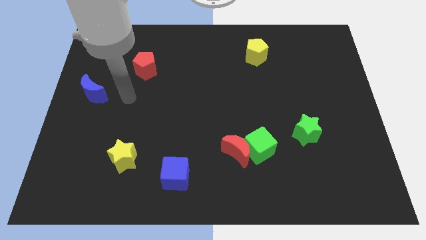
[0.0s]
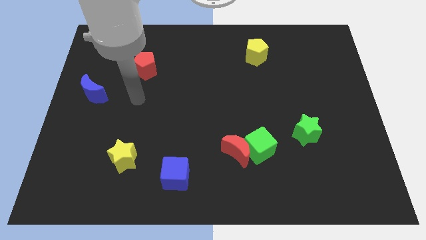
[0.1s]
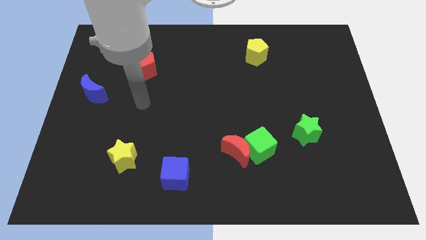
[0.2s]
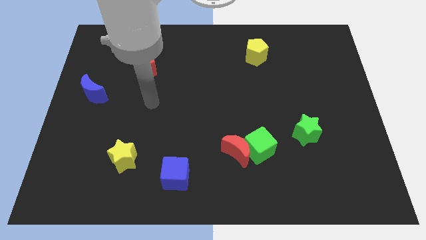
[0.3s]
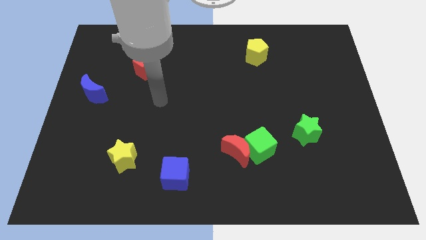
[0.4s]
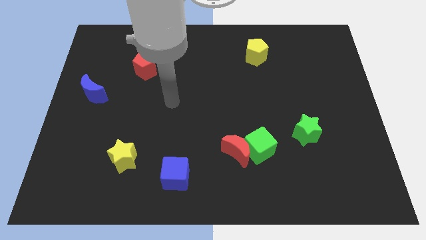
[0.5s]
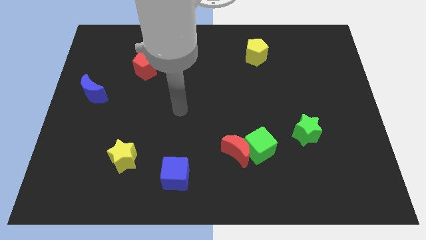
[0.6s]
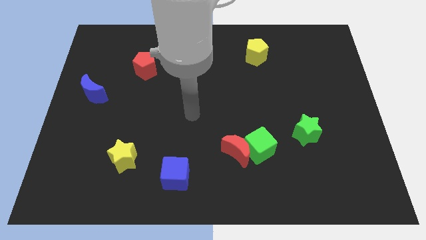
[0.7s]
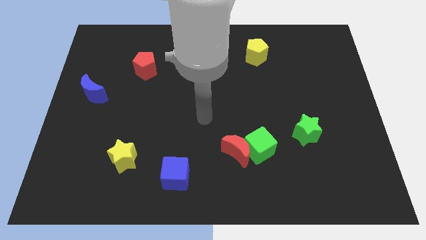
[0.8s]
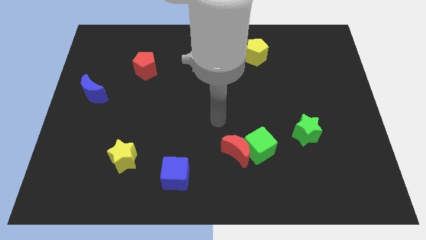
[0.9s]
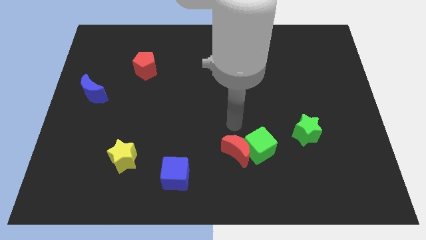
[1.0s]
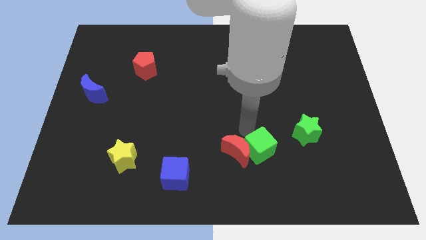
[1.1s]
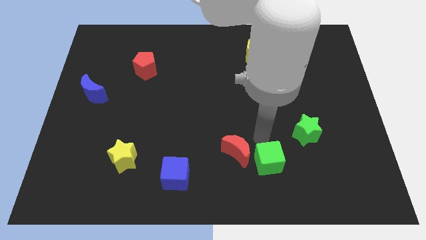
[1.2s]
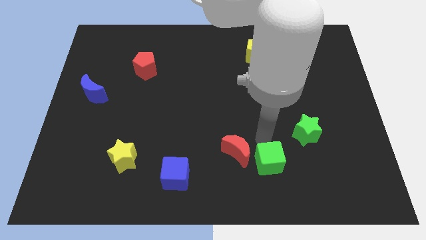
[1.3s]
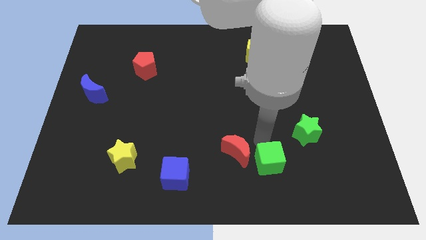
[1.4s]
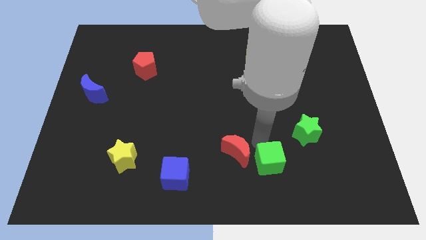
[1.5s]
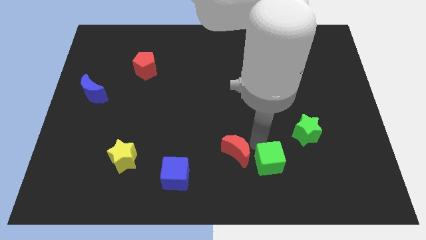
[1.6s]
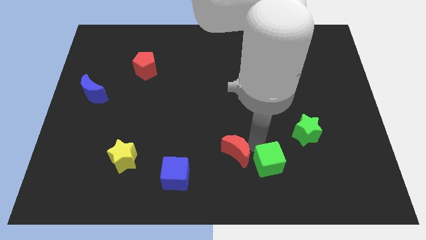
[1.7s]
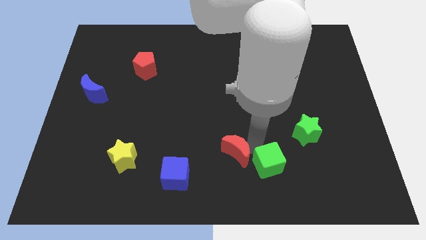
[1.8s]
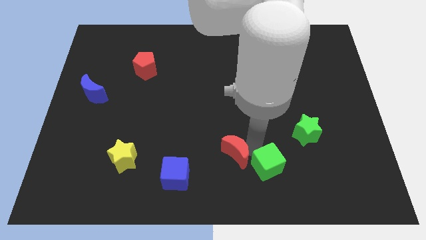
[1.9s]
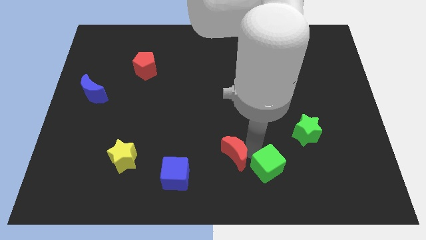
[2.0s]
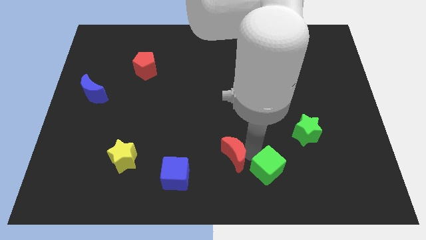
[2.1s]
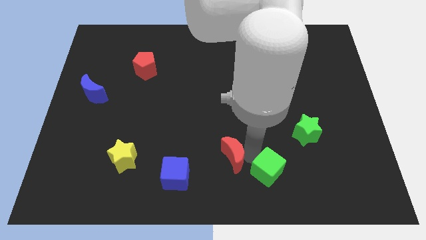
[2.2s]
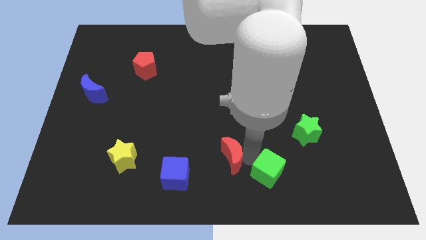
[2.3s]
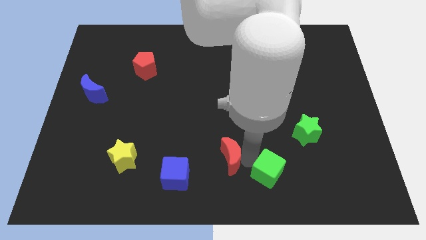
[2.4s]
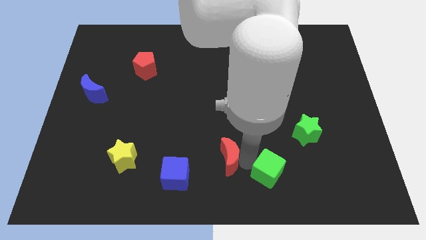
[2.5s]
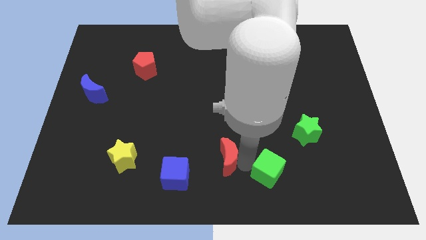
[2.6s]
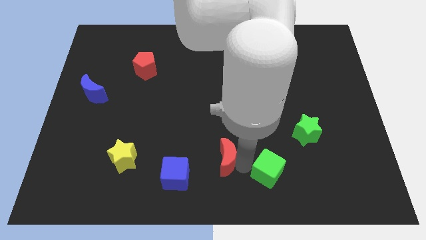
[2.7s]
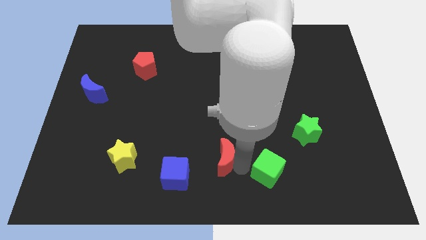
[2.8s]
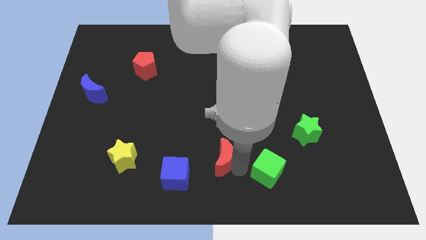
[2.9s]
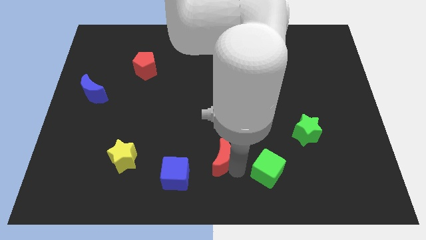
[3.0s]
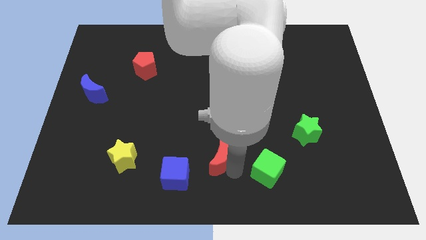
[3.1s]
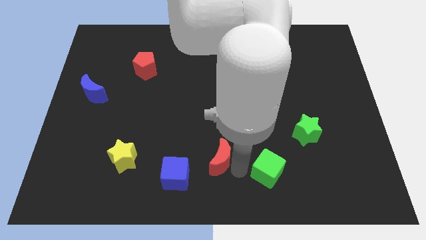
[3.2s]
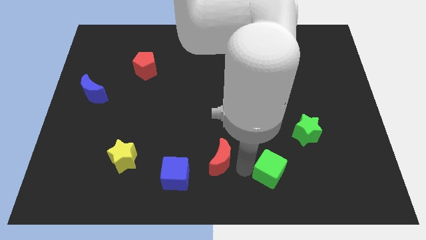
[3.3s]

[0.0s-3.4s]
pull the red moon apart from the green cube

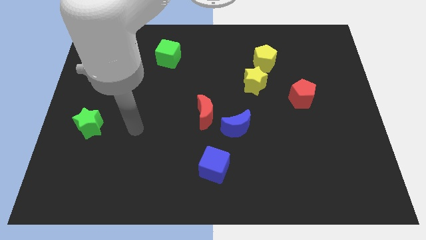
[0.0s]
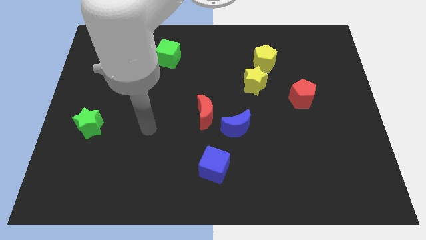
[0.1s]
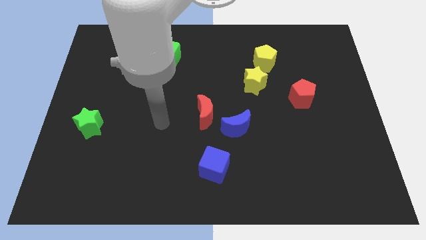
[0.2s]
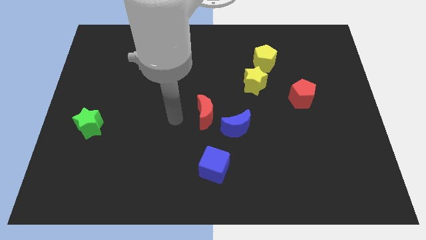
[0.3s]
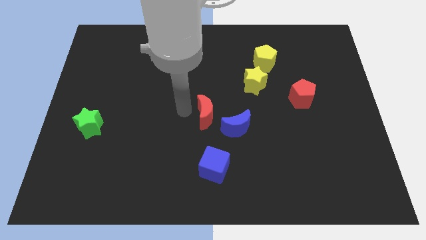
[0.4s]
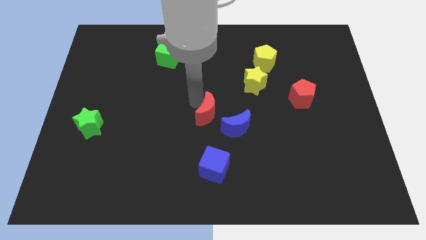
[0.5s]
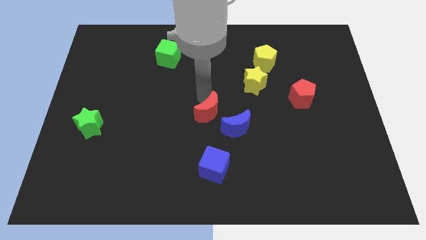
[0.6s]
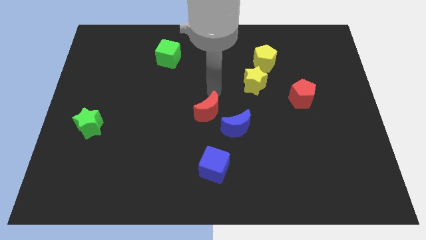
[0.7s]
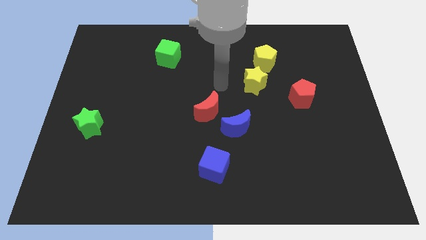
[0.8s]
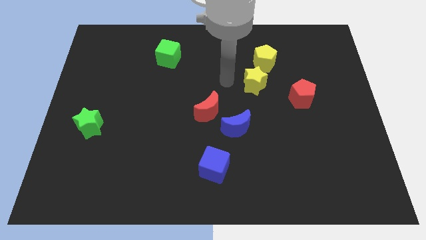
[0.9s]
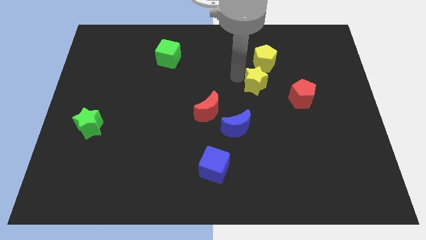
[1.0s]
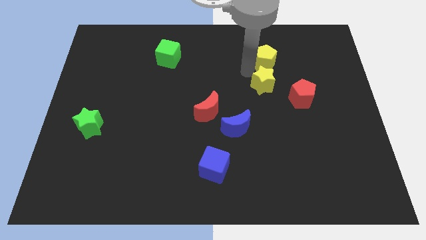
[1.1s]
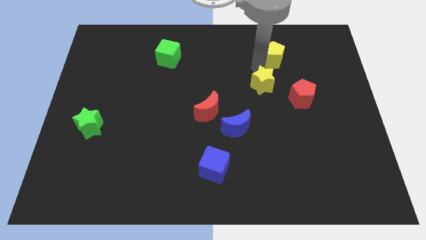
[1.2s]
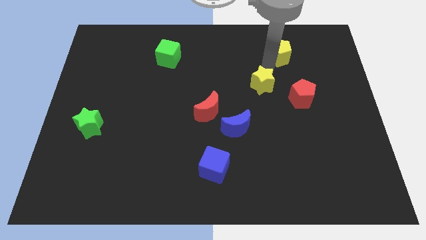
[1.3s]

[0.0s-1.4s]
move the yellow star away from the yellow pentagon

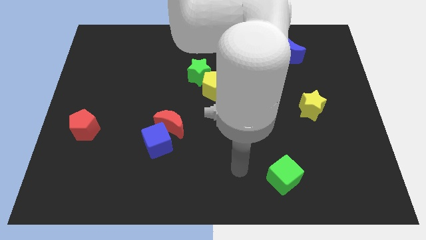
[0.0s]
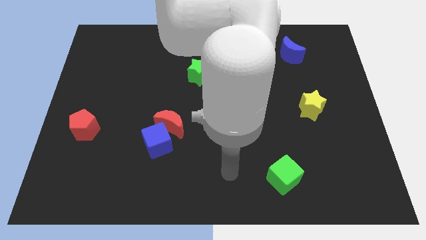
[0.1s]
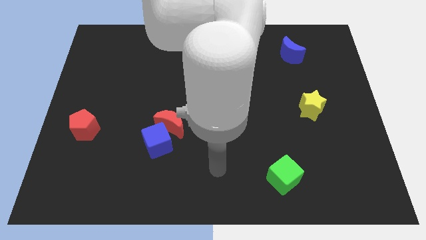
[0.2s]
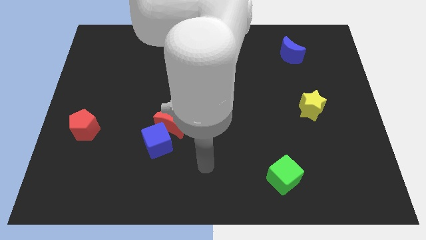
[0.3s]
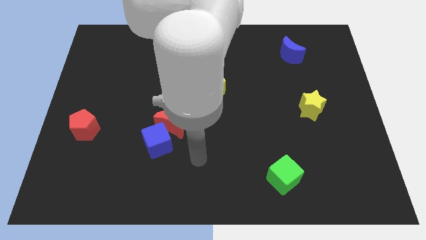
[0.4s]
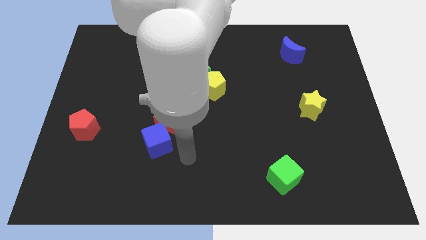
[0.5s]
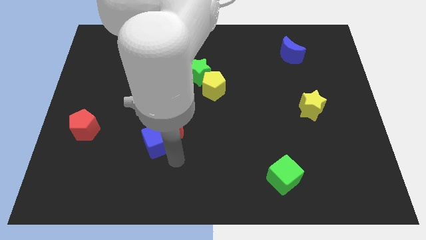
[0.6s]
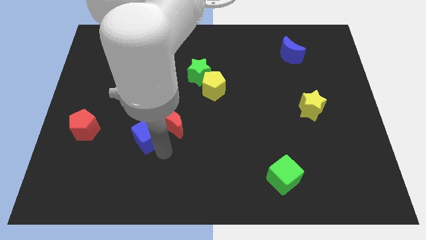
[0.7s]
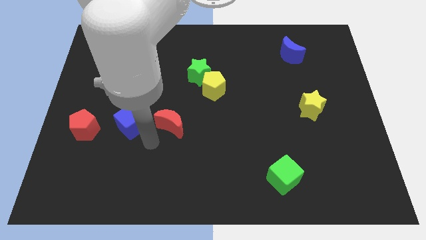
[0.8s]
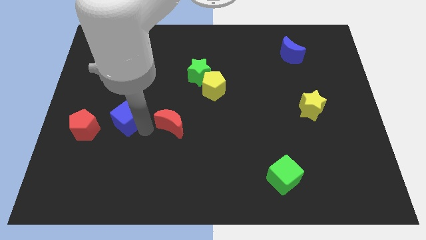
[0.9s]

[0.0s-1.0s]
pull the red moon apart from the blue cube

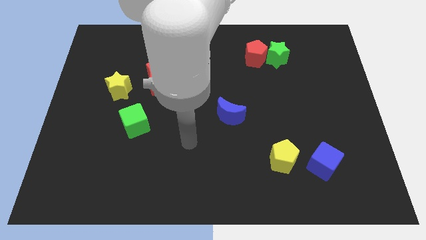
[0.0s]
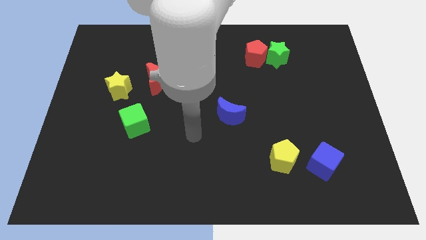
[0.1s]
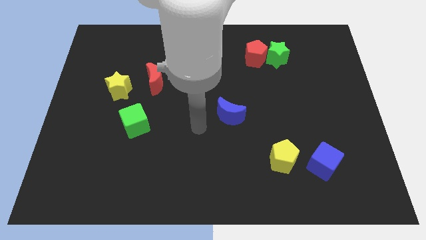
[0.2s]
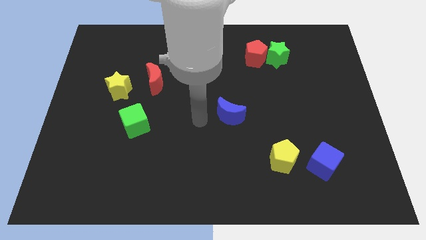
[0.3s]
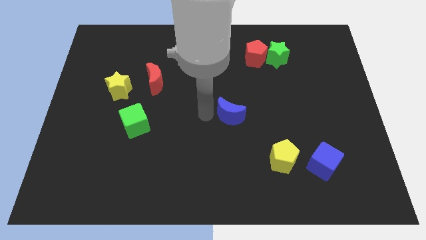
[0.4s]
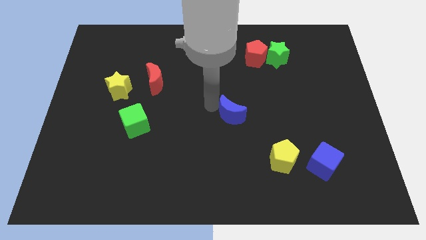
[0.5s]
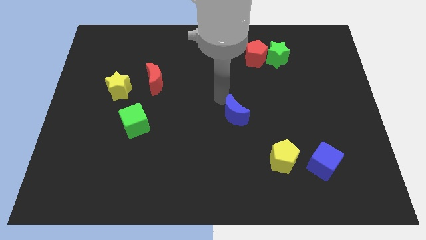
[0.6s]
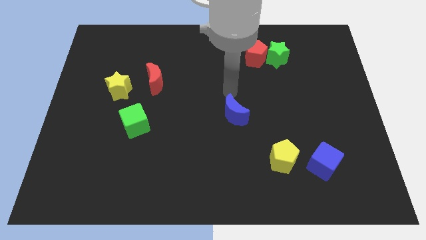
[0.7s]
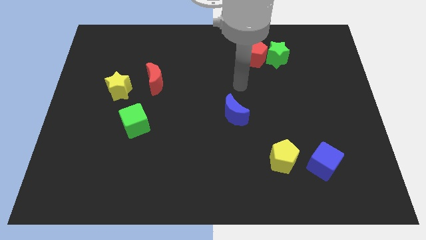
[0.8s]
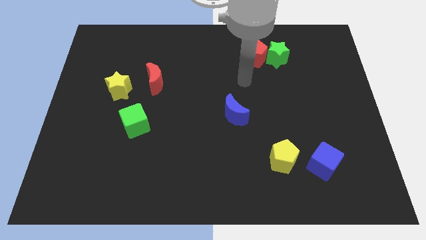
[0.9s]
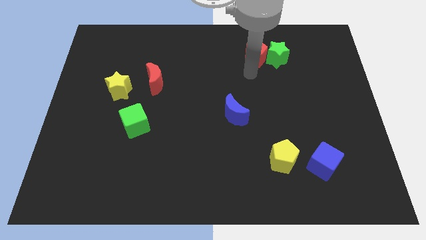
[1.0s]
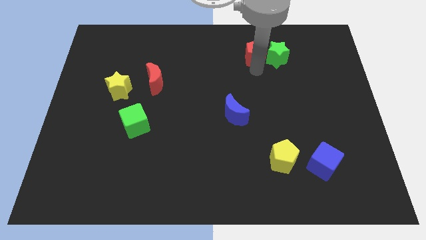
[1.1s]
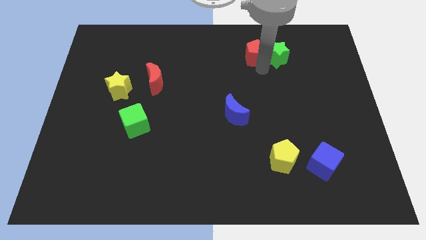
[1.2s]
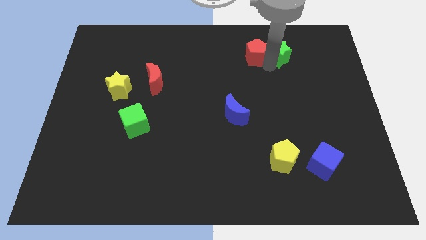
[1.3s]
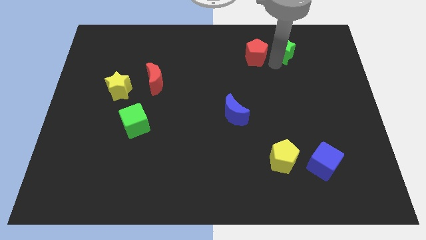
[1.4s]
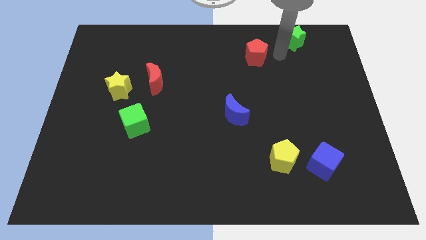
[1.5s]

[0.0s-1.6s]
pull the red pentagon apart from the green star

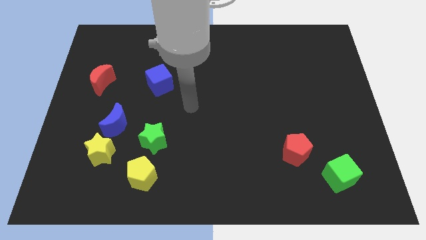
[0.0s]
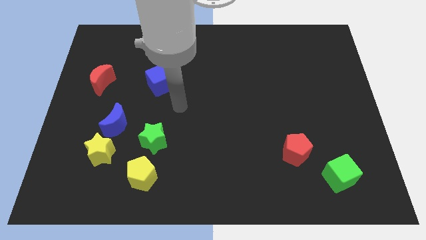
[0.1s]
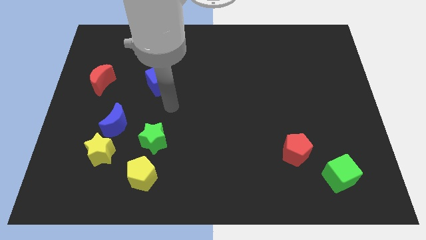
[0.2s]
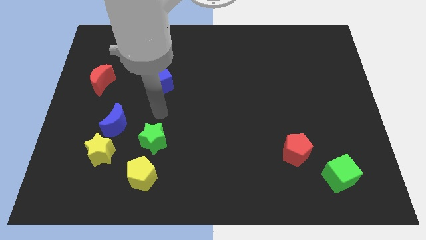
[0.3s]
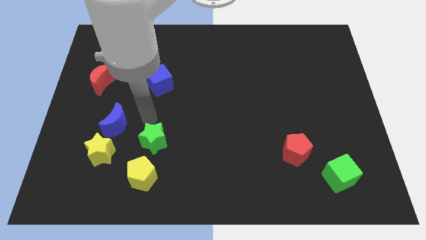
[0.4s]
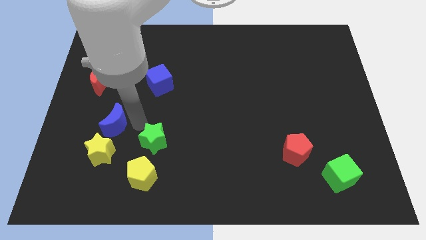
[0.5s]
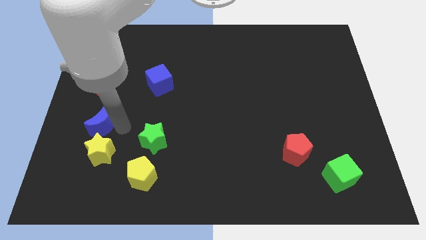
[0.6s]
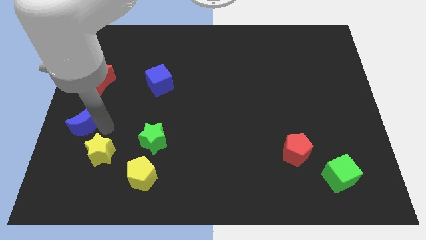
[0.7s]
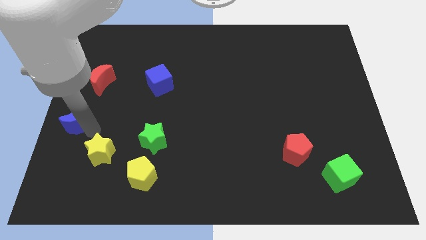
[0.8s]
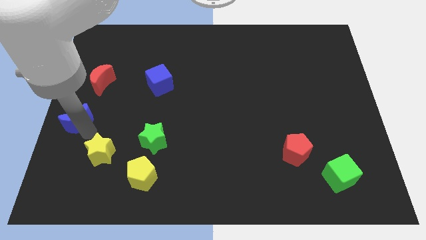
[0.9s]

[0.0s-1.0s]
move the yellow star away from the blue moon

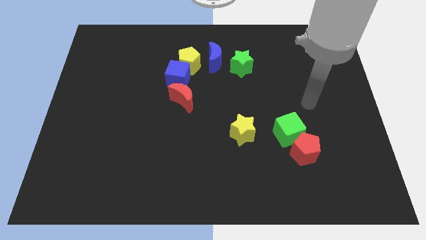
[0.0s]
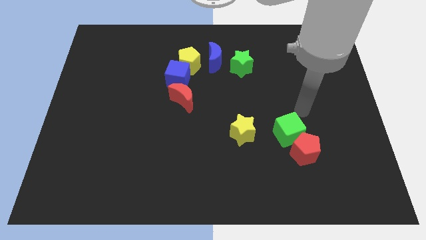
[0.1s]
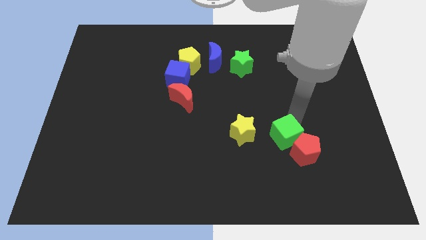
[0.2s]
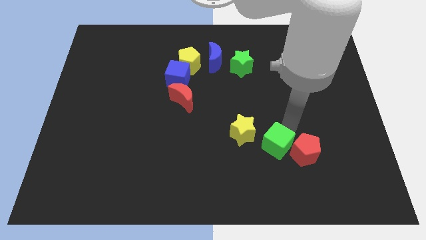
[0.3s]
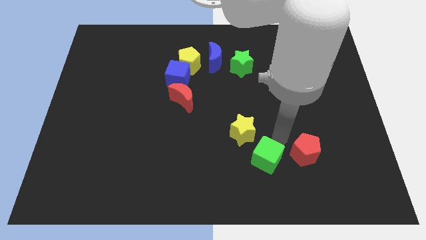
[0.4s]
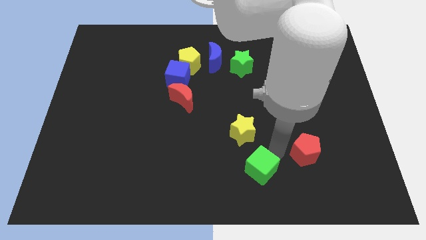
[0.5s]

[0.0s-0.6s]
pull the red pentagon apart from the green cube

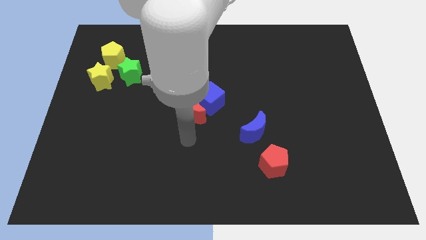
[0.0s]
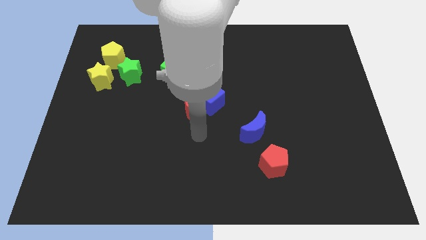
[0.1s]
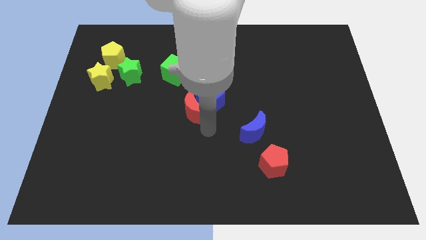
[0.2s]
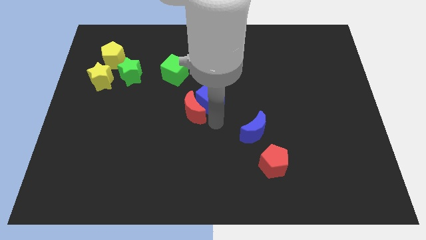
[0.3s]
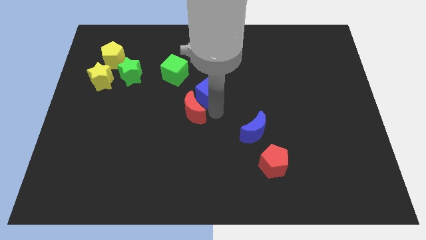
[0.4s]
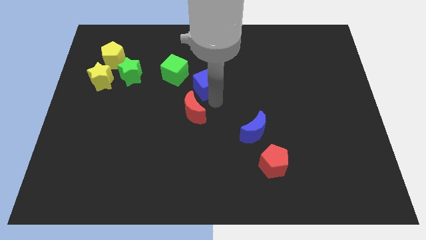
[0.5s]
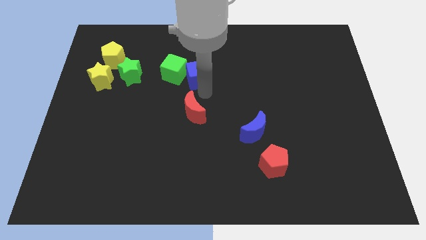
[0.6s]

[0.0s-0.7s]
move the red moon away from the blue cube
